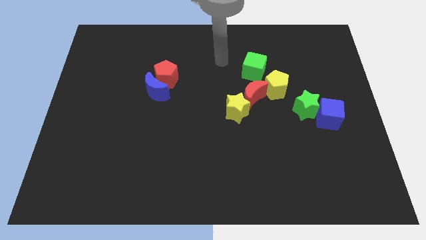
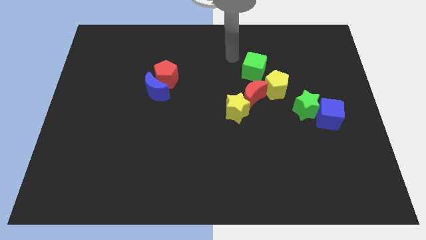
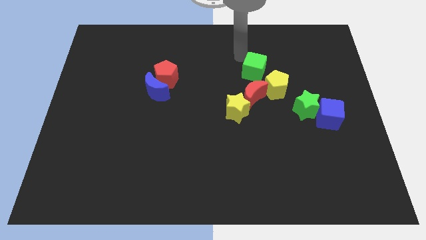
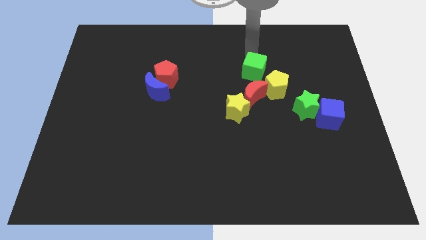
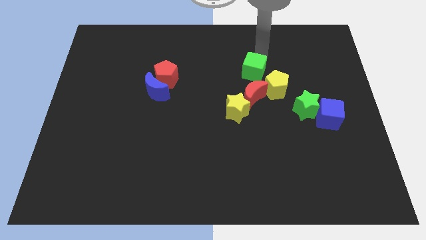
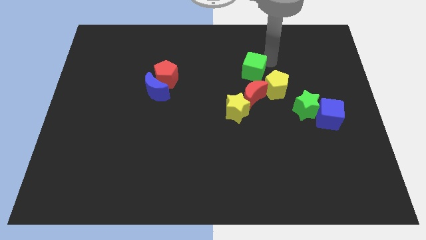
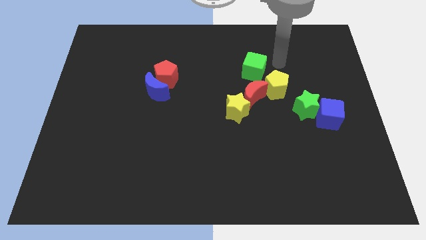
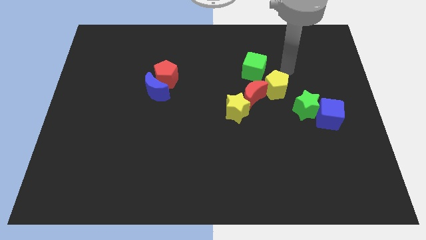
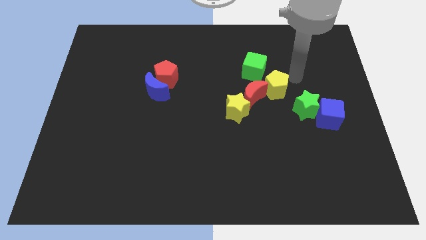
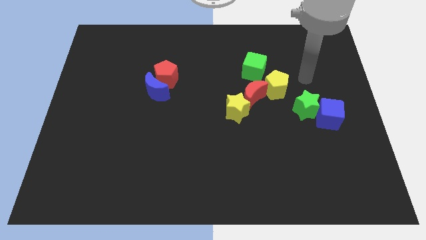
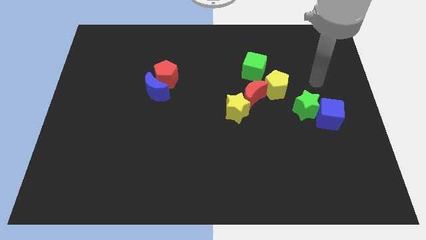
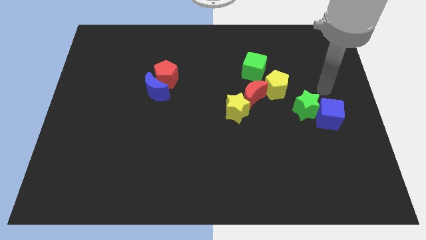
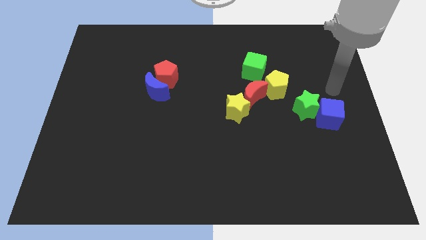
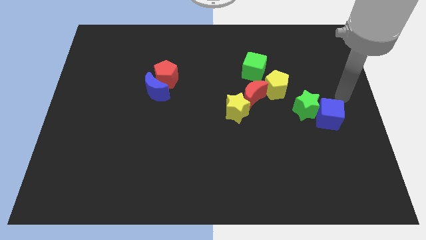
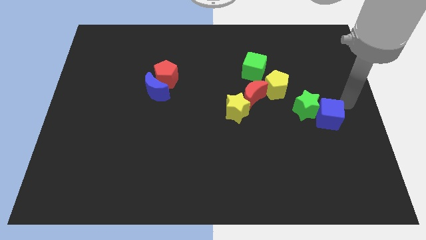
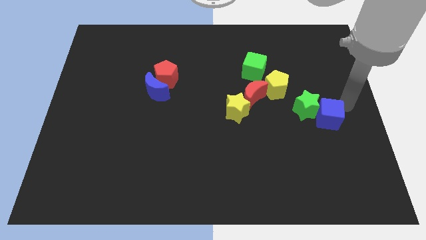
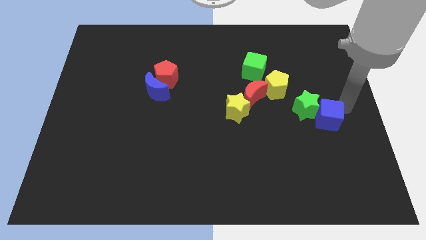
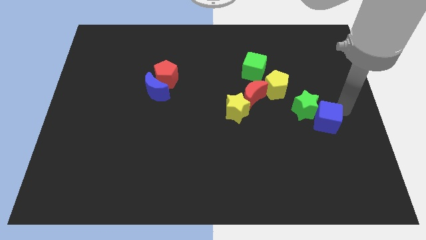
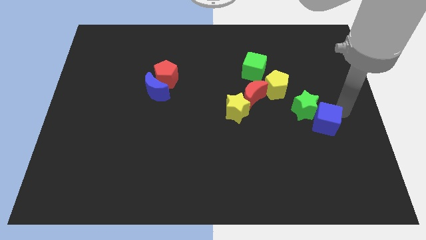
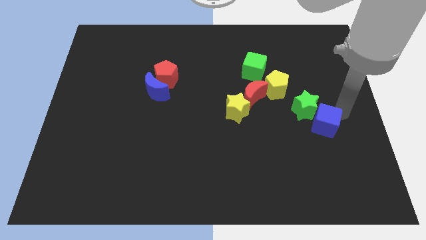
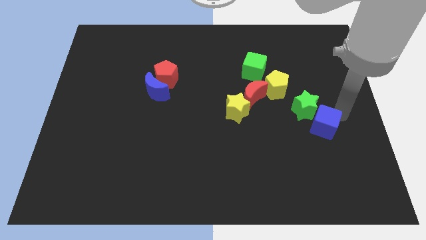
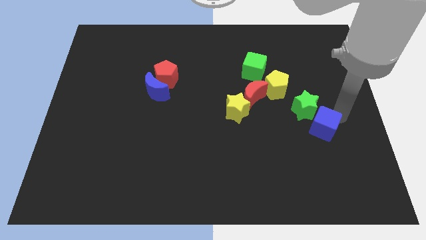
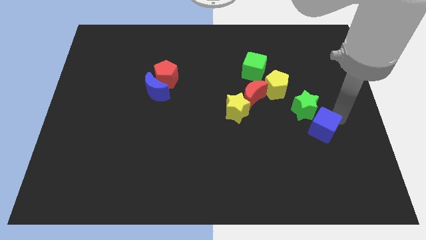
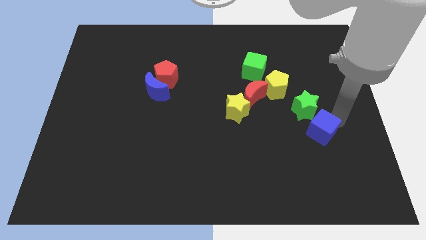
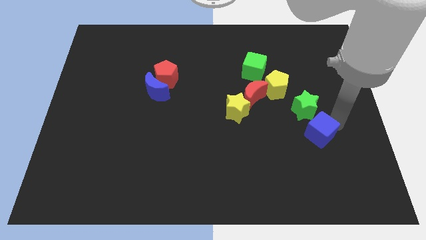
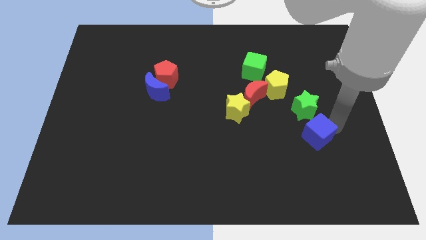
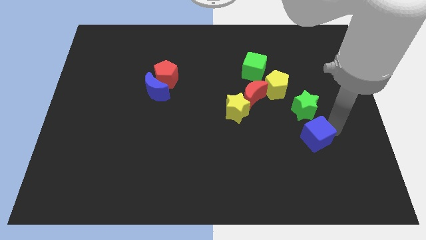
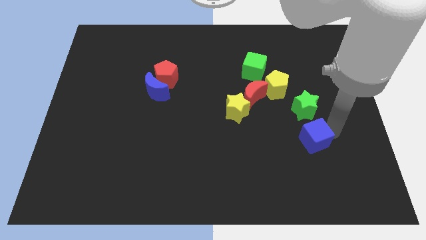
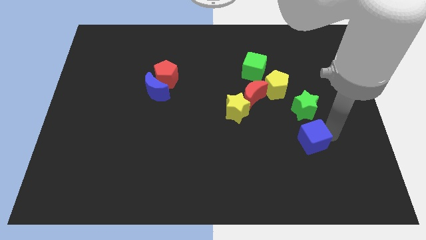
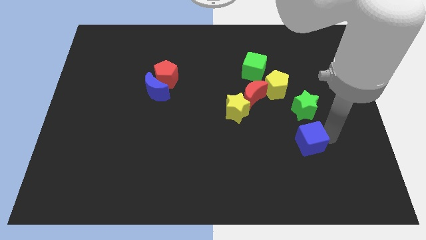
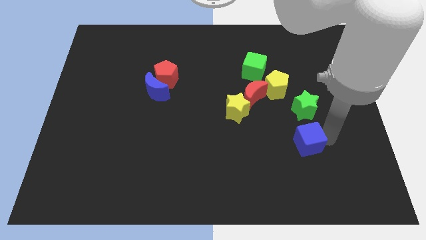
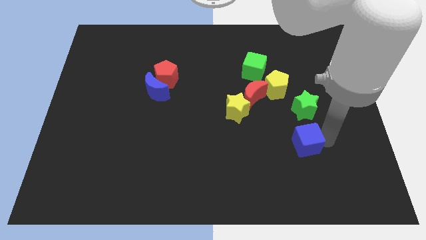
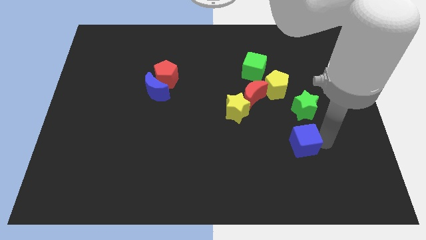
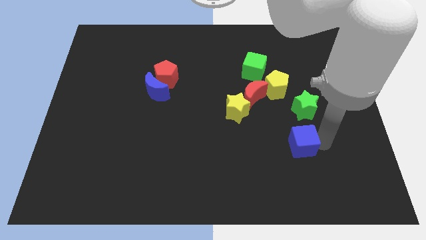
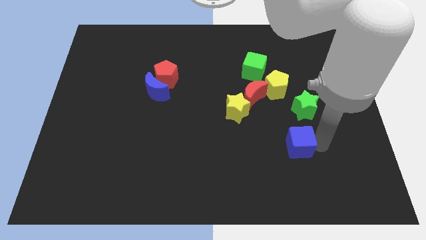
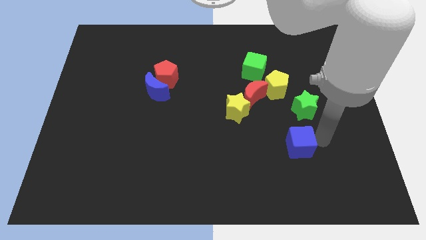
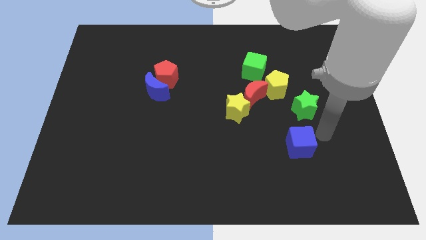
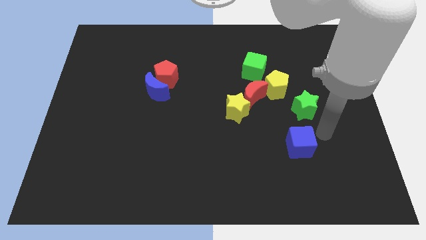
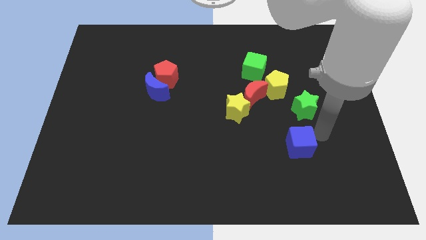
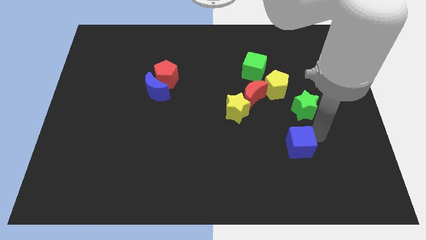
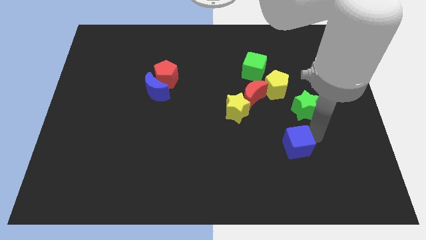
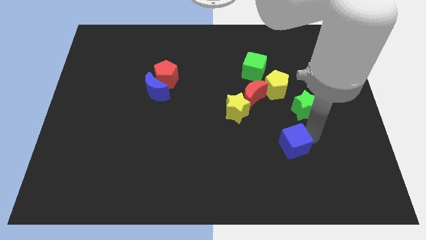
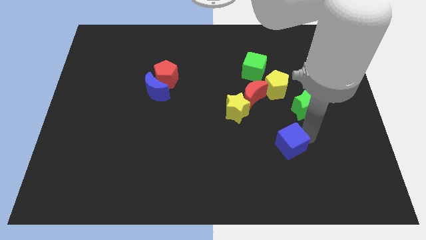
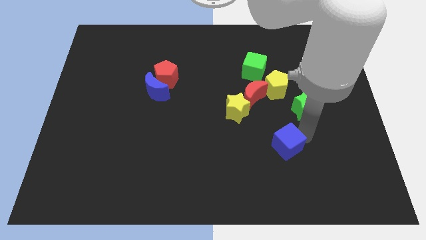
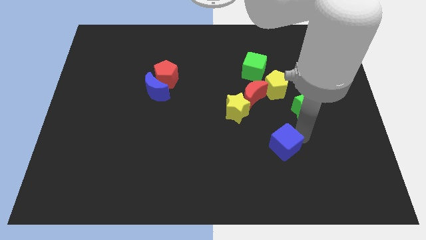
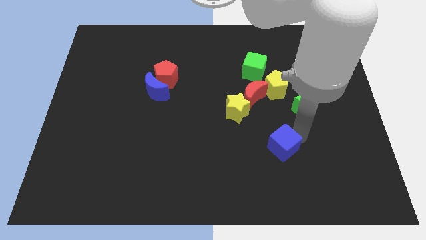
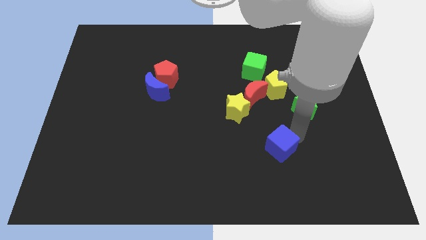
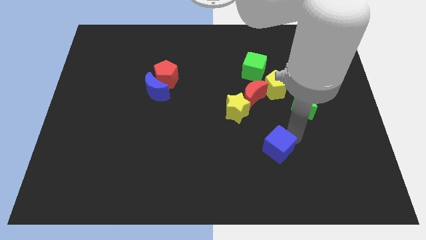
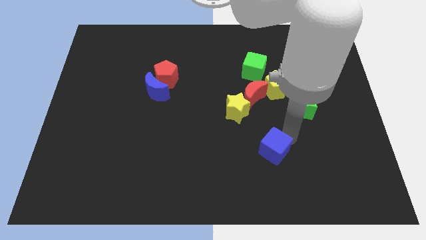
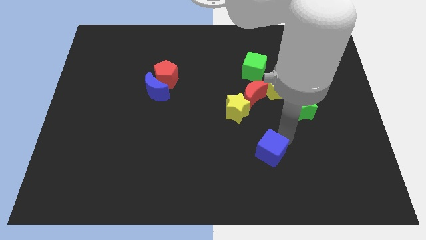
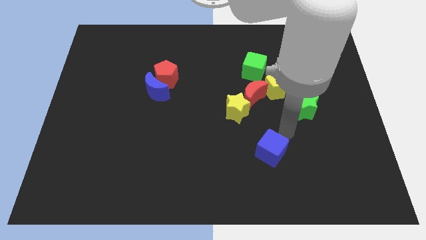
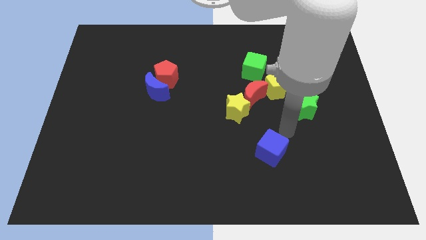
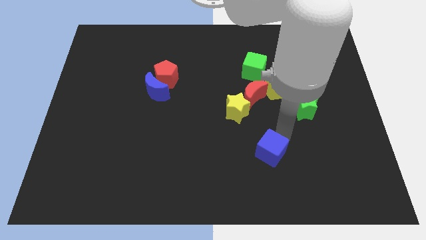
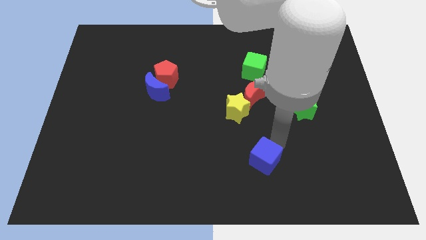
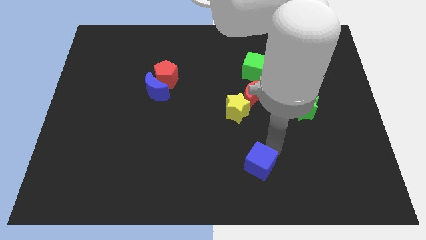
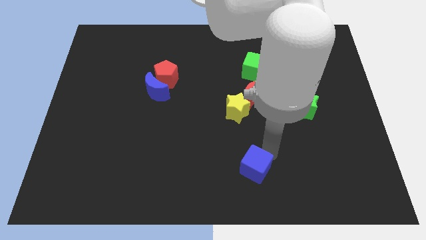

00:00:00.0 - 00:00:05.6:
push the blue cube to the bottom side

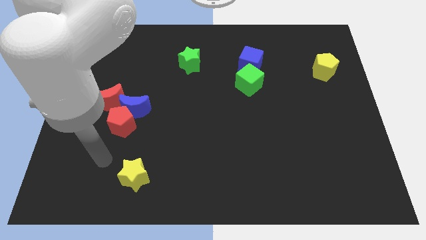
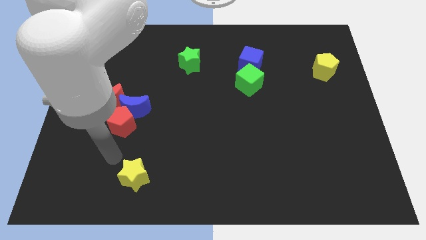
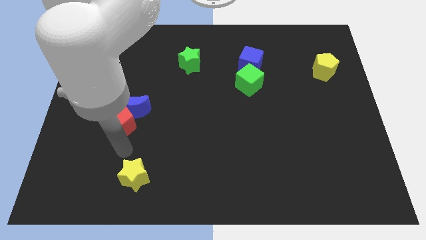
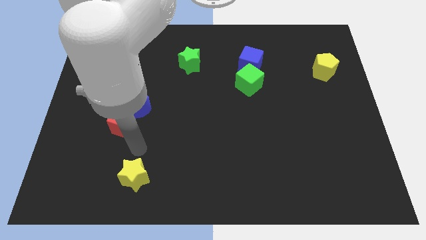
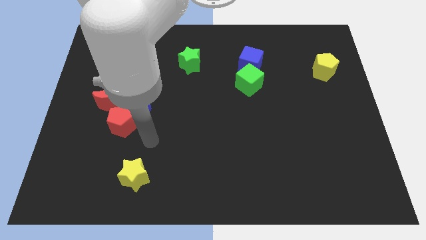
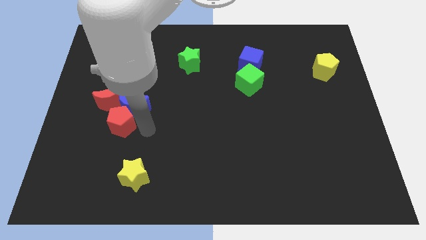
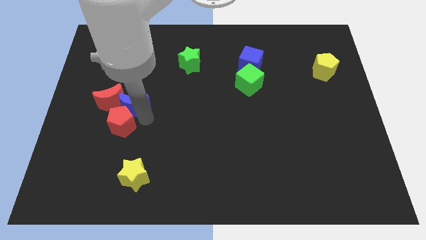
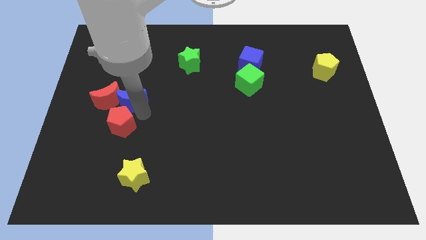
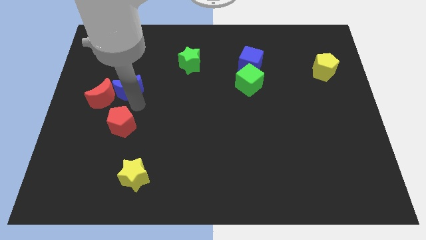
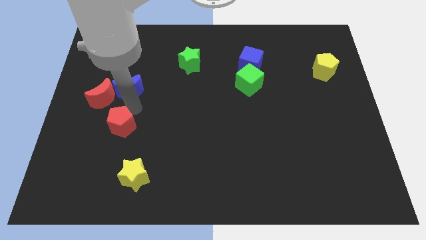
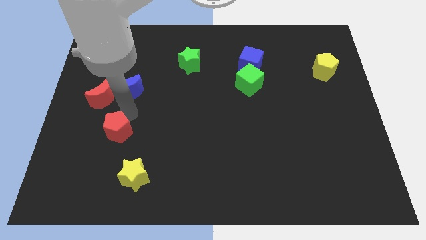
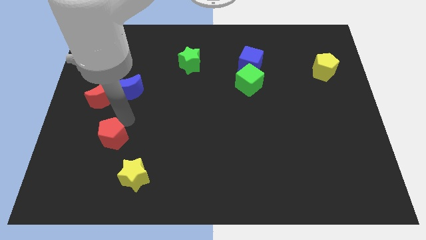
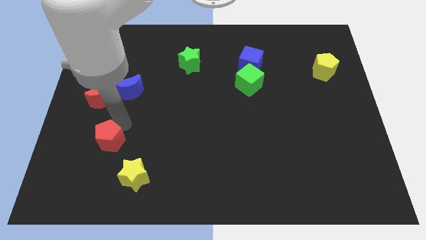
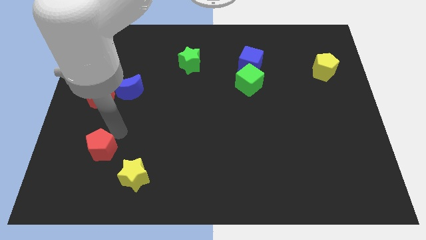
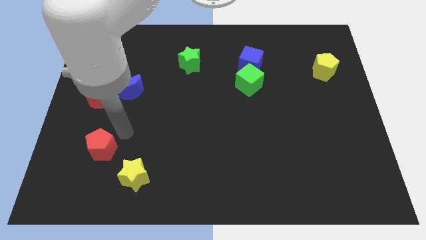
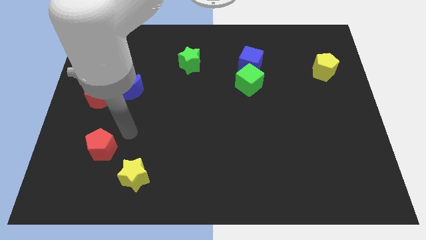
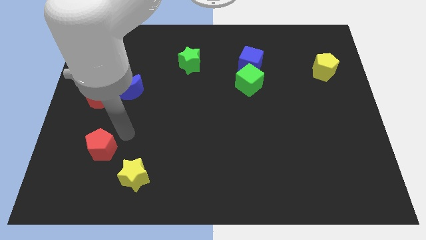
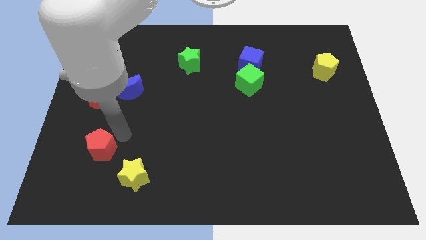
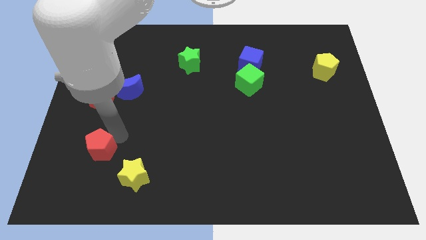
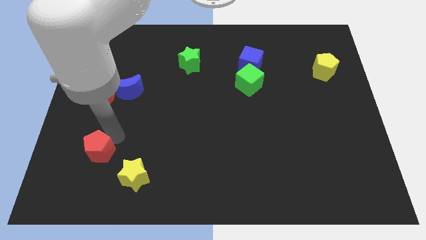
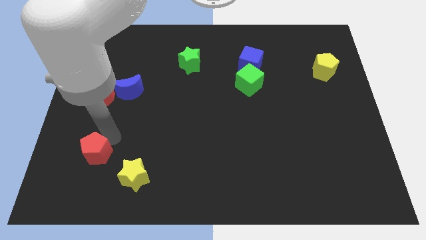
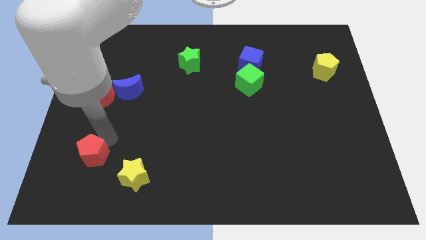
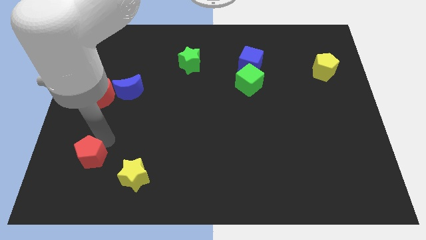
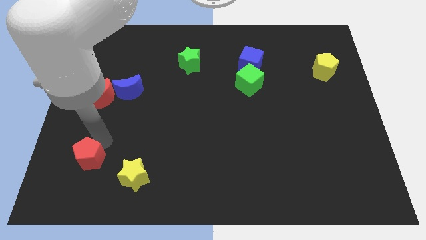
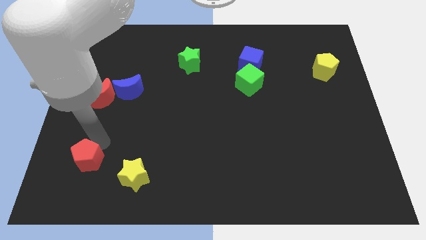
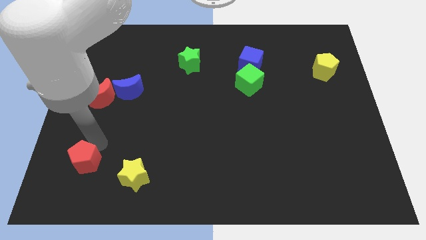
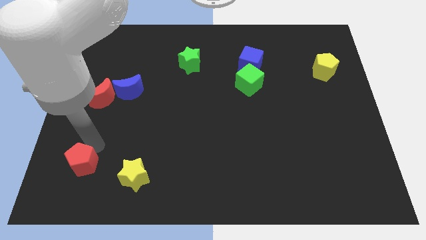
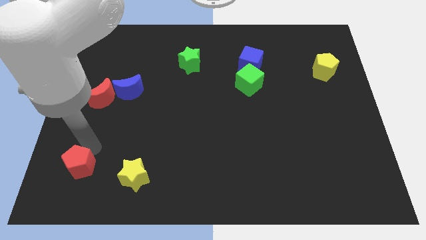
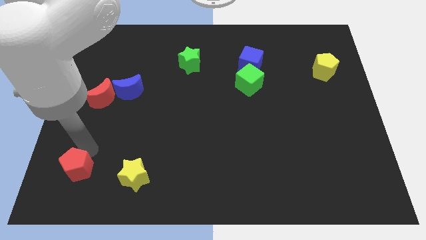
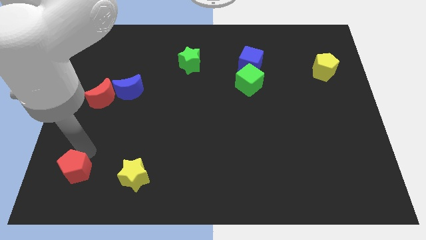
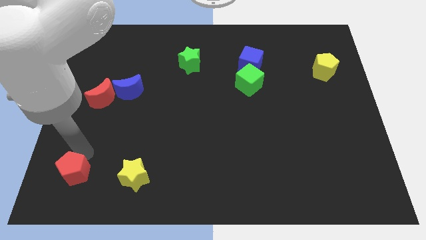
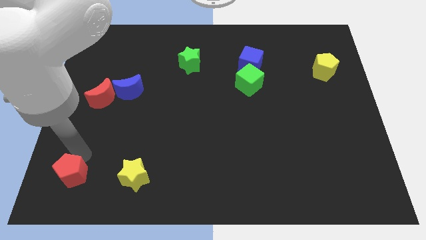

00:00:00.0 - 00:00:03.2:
slide the red pentagon to the bottom left of the board
